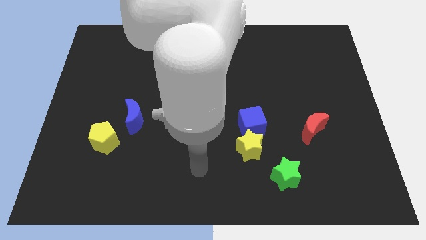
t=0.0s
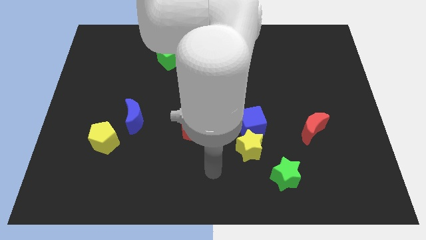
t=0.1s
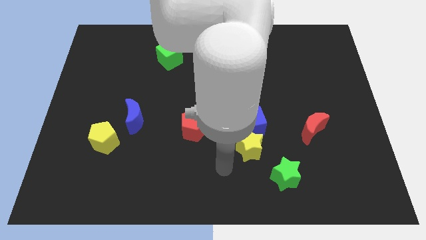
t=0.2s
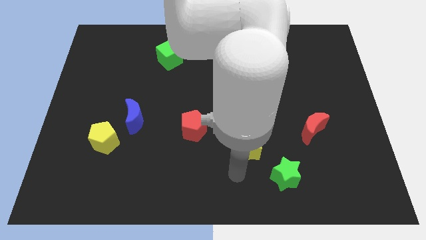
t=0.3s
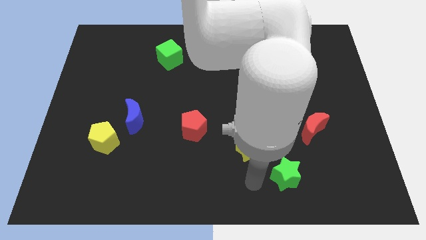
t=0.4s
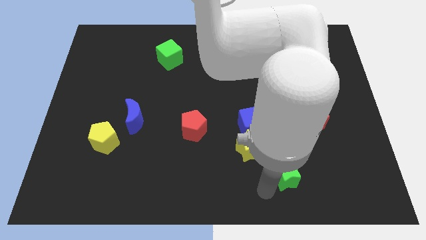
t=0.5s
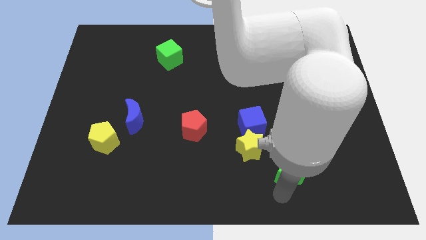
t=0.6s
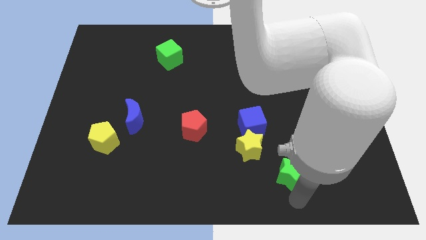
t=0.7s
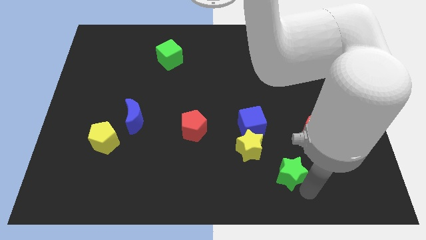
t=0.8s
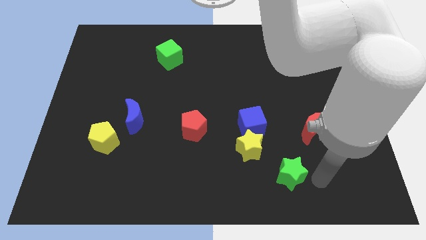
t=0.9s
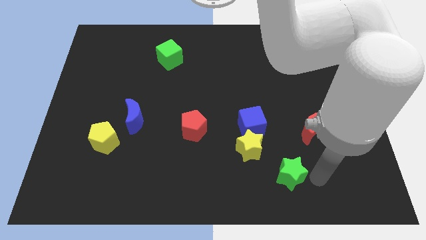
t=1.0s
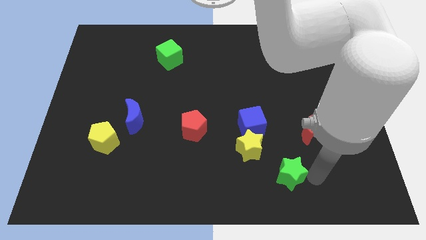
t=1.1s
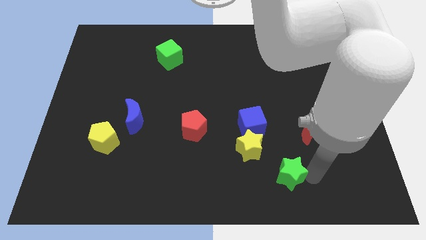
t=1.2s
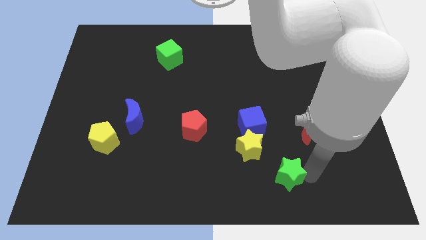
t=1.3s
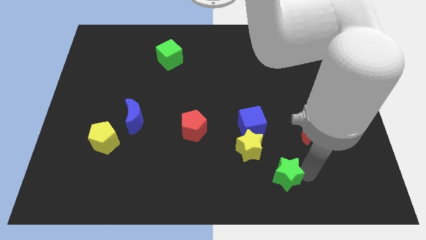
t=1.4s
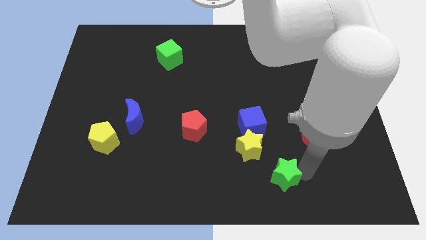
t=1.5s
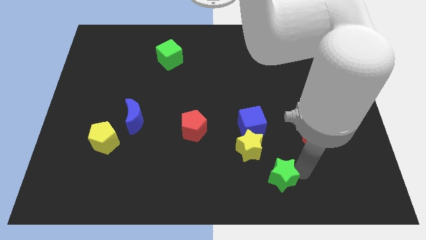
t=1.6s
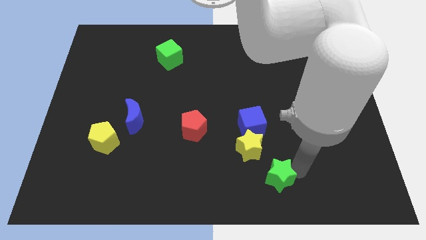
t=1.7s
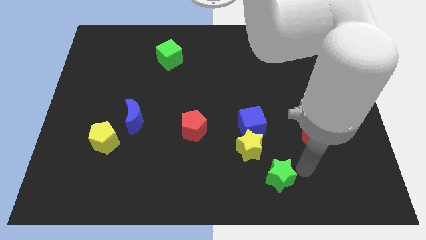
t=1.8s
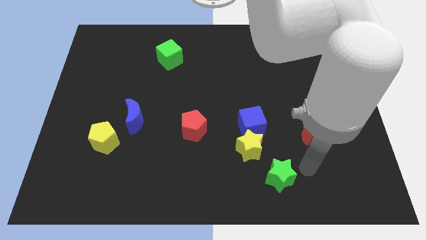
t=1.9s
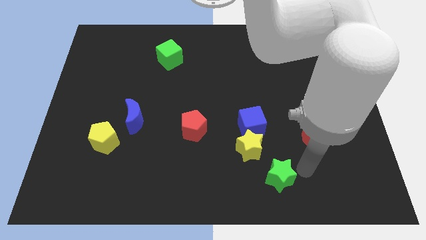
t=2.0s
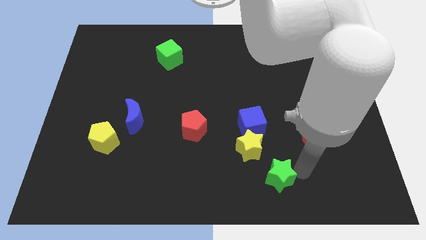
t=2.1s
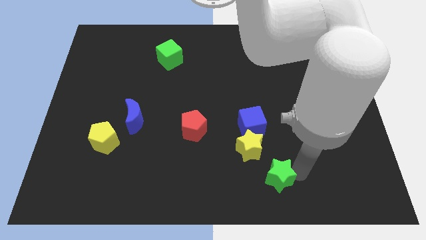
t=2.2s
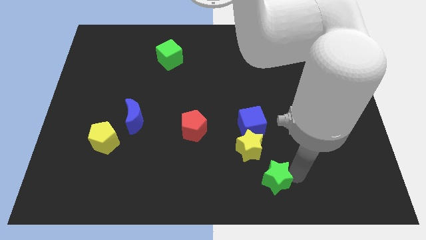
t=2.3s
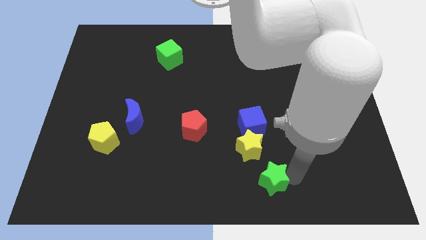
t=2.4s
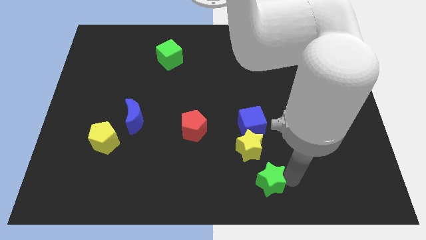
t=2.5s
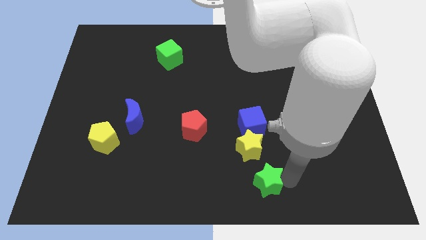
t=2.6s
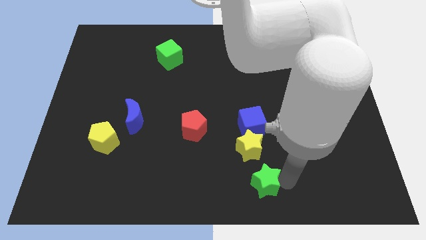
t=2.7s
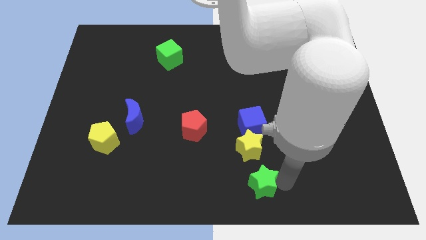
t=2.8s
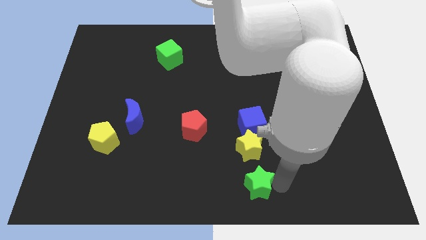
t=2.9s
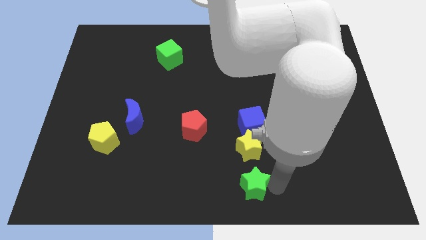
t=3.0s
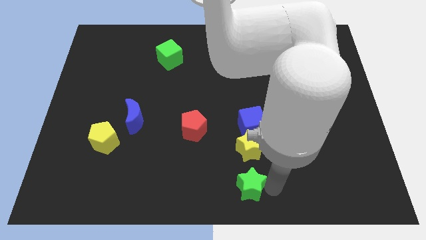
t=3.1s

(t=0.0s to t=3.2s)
slightly slide the green star to the left

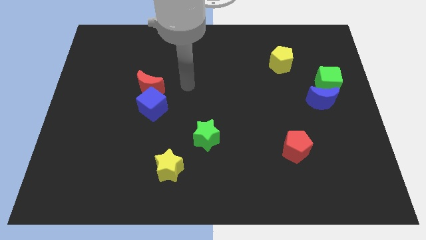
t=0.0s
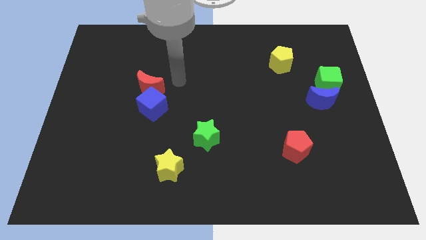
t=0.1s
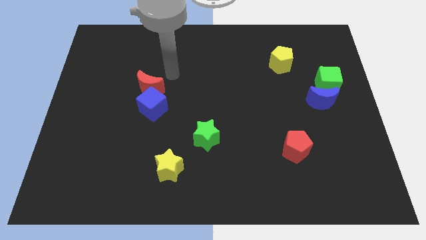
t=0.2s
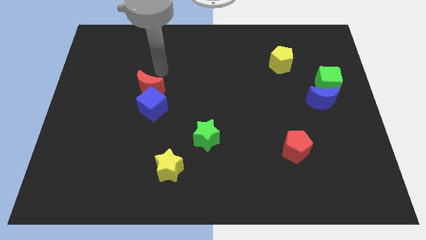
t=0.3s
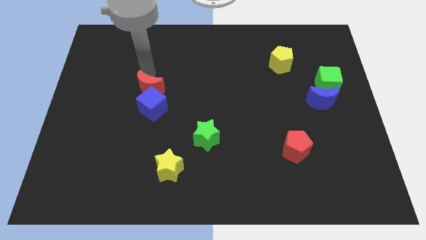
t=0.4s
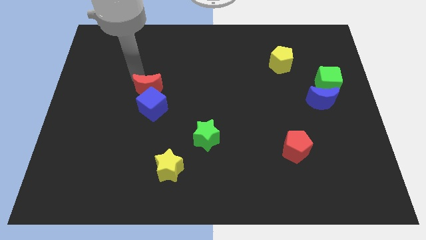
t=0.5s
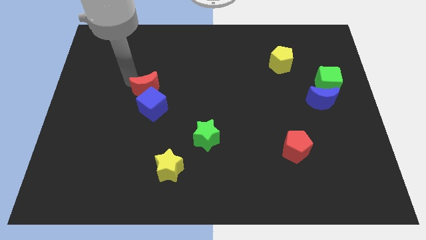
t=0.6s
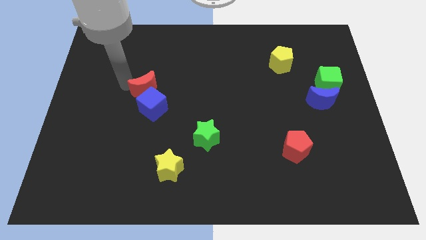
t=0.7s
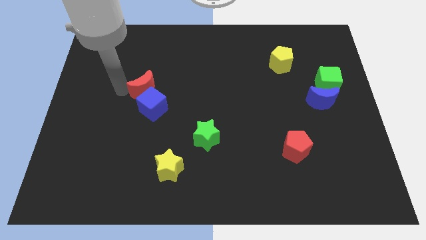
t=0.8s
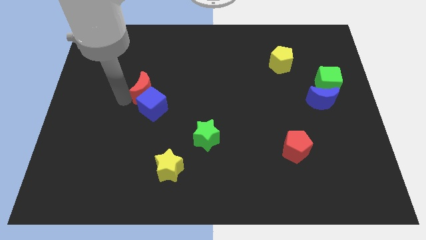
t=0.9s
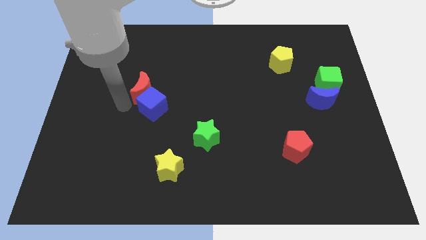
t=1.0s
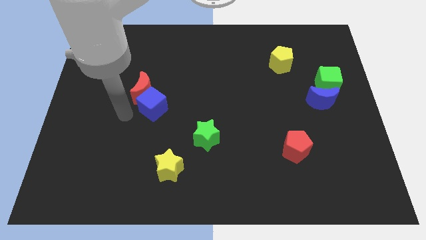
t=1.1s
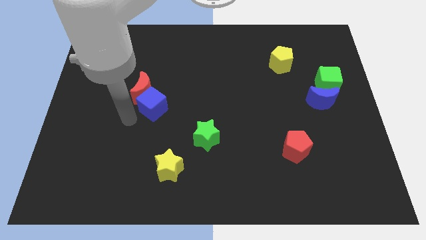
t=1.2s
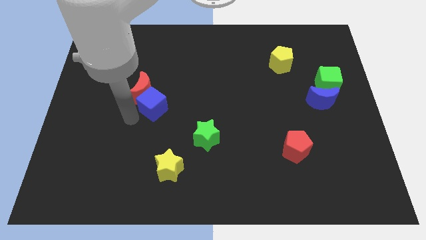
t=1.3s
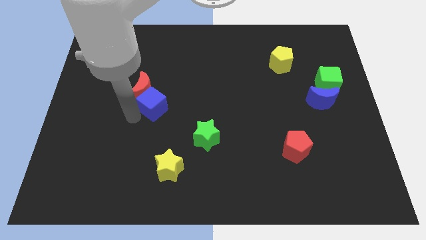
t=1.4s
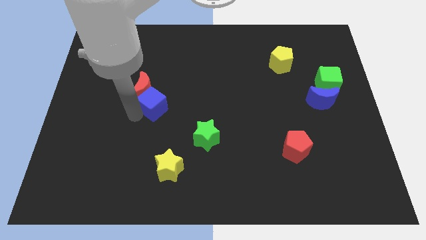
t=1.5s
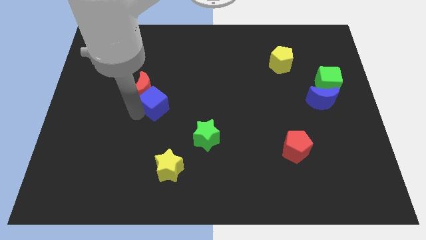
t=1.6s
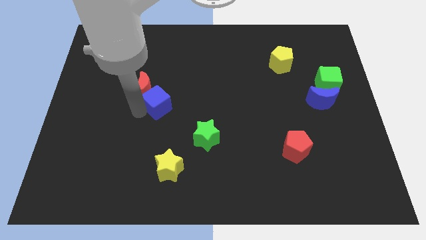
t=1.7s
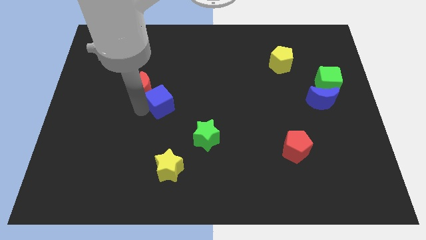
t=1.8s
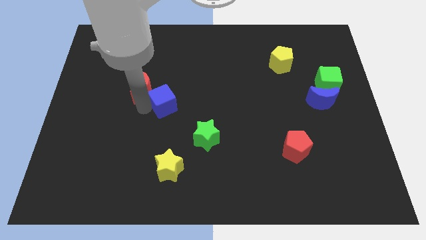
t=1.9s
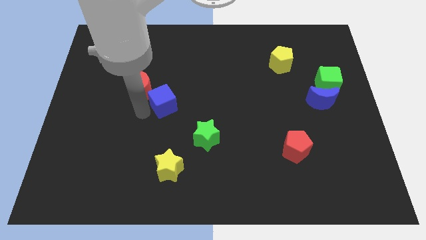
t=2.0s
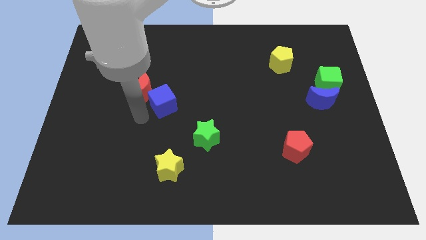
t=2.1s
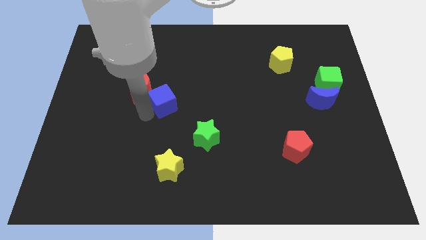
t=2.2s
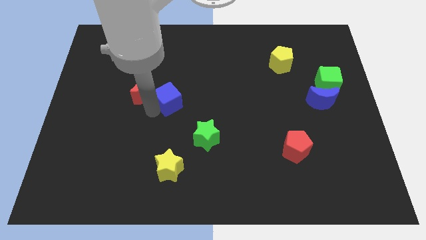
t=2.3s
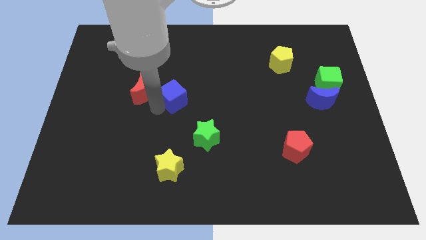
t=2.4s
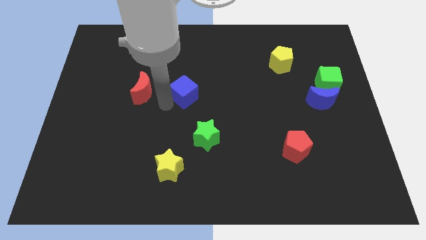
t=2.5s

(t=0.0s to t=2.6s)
move the blue cube a bit upwards and to the right

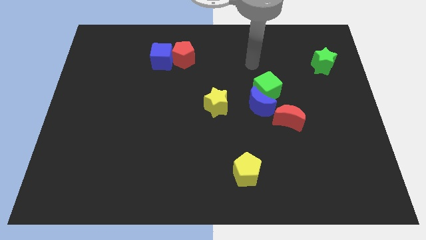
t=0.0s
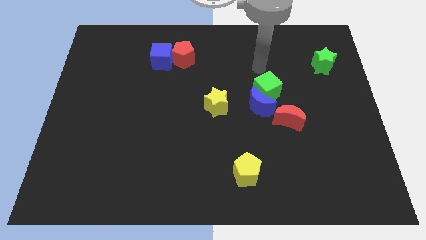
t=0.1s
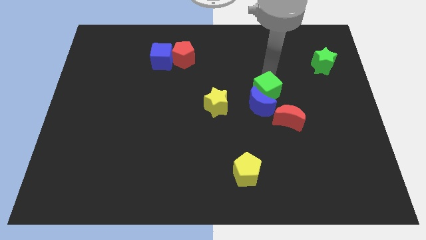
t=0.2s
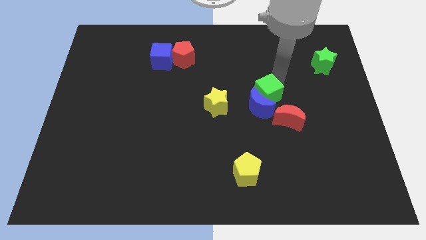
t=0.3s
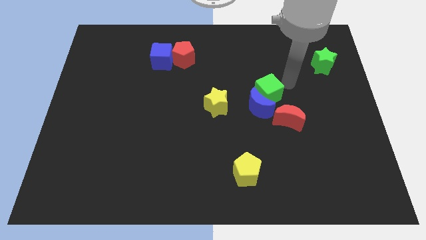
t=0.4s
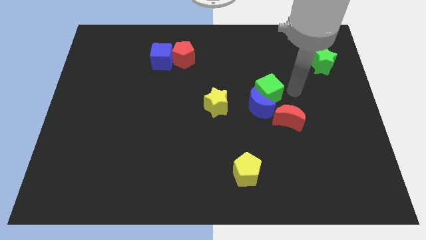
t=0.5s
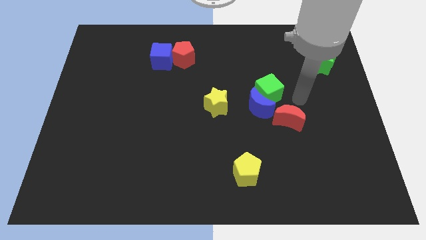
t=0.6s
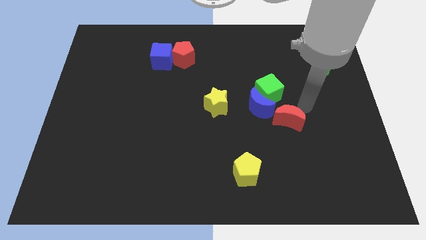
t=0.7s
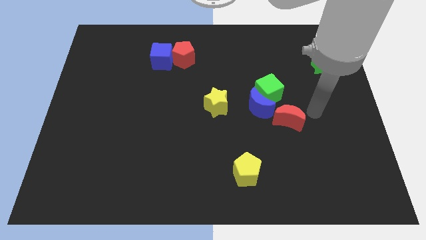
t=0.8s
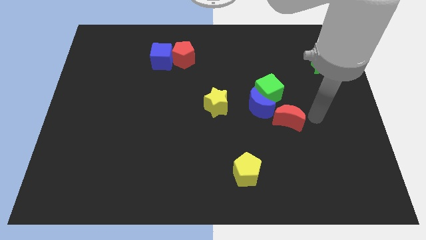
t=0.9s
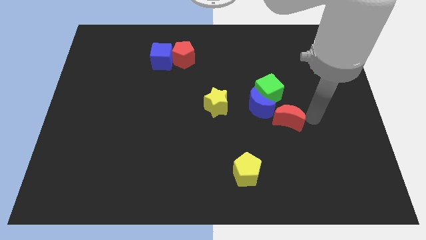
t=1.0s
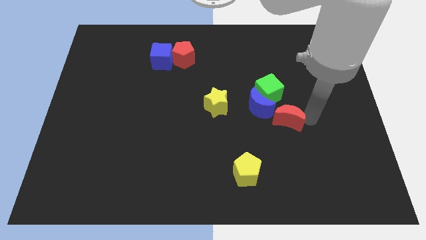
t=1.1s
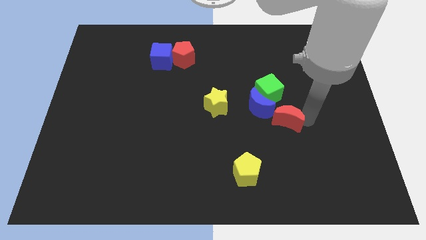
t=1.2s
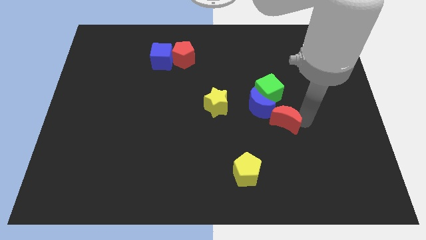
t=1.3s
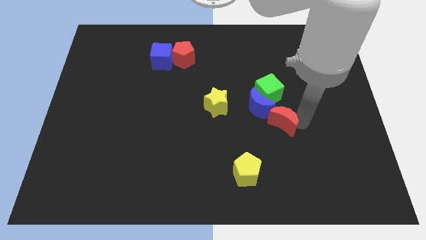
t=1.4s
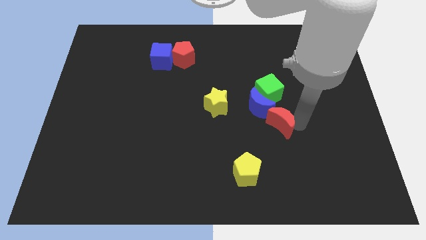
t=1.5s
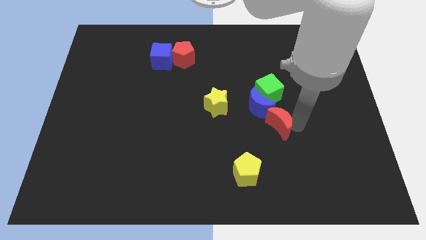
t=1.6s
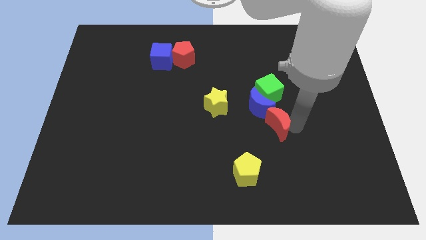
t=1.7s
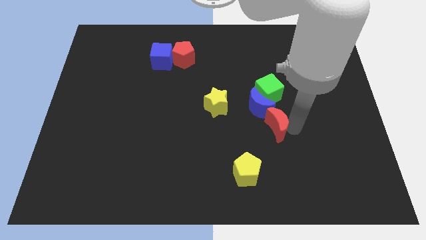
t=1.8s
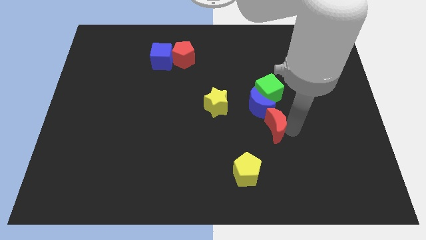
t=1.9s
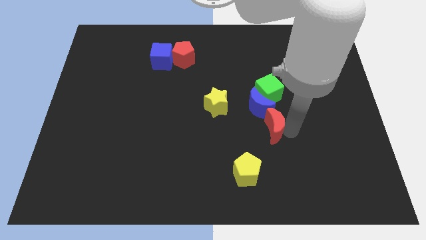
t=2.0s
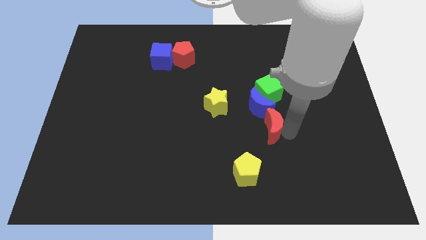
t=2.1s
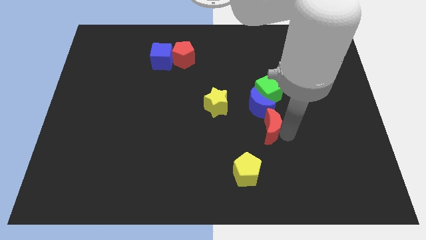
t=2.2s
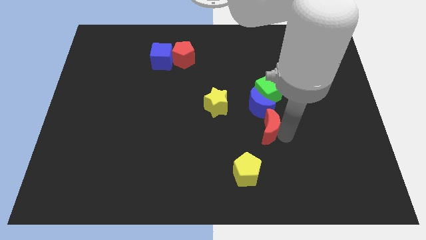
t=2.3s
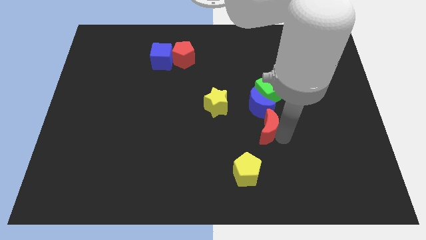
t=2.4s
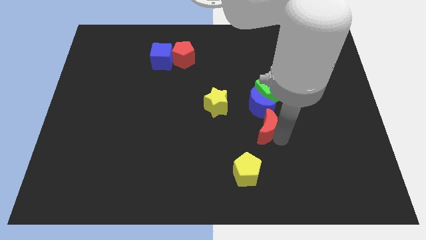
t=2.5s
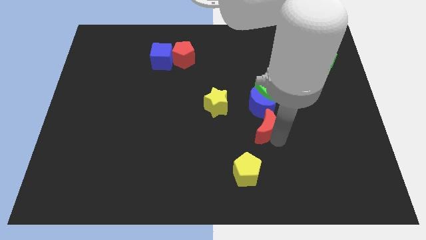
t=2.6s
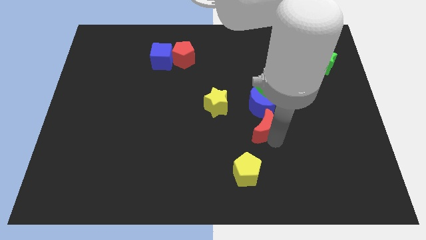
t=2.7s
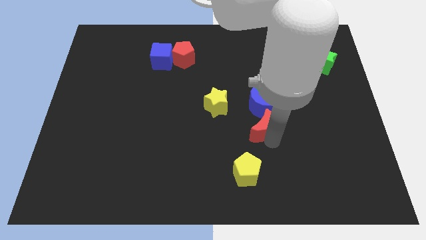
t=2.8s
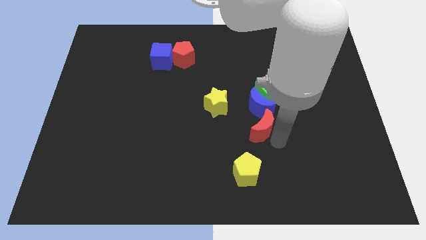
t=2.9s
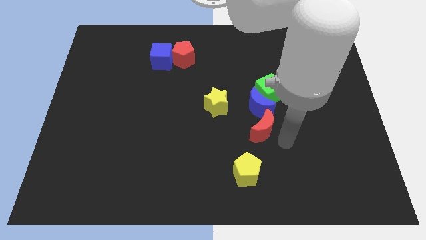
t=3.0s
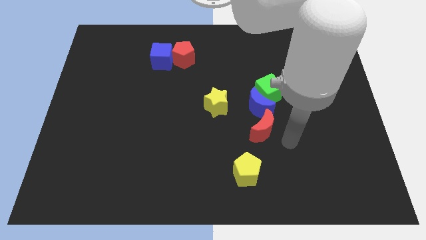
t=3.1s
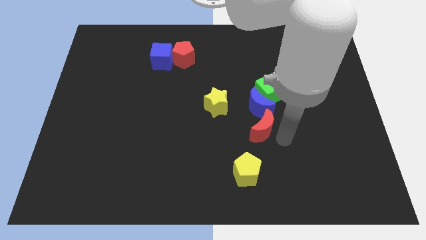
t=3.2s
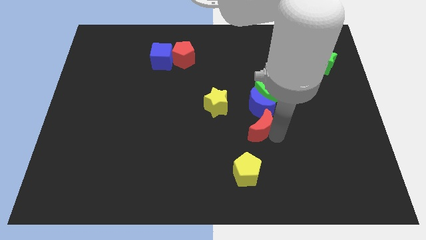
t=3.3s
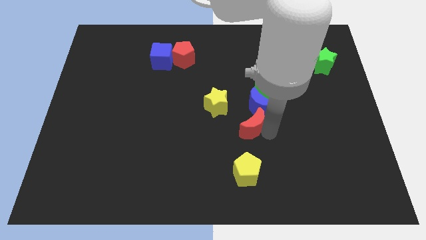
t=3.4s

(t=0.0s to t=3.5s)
push the red moon to the left slightly
